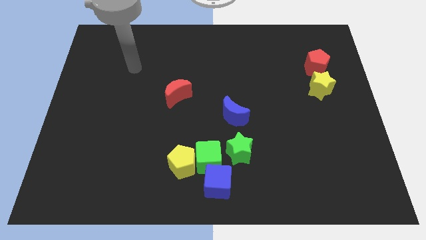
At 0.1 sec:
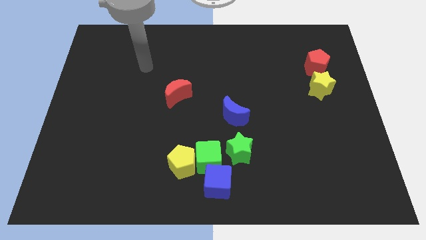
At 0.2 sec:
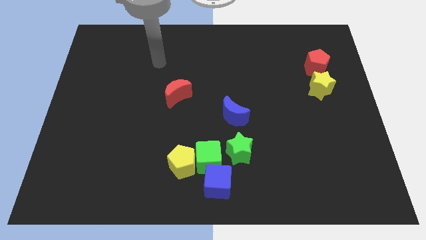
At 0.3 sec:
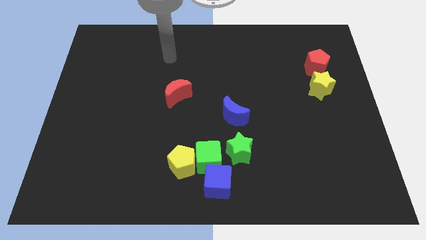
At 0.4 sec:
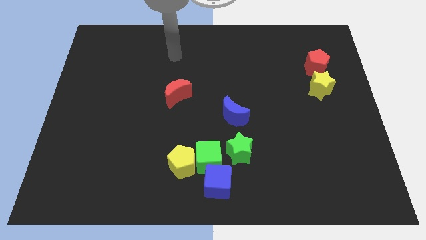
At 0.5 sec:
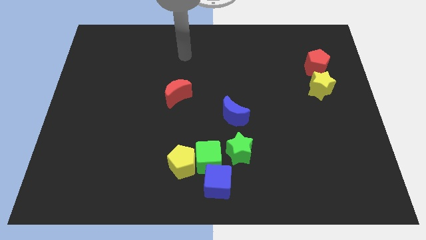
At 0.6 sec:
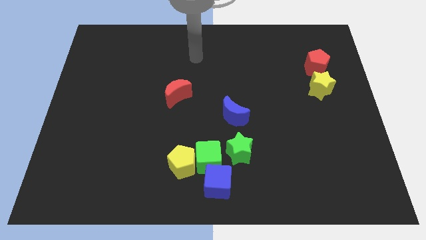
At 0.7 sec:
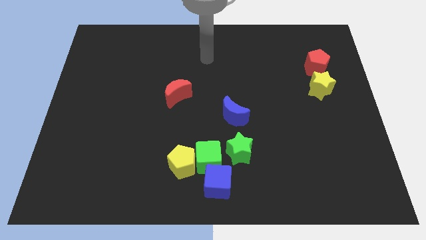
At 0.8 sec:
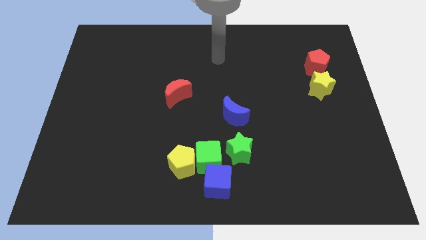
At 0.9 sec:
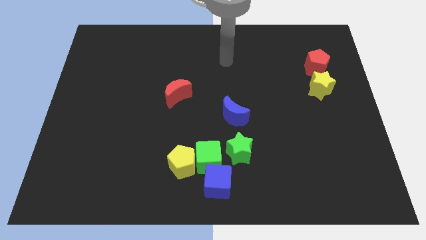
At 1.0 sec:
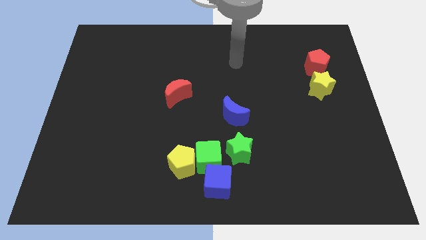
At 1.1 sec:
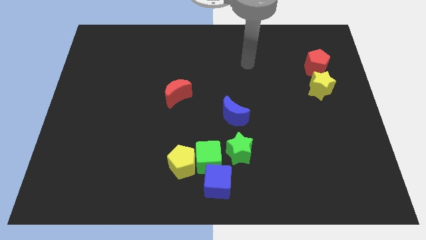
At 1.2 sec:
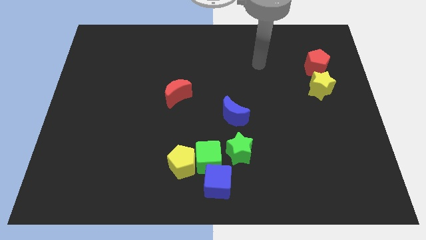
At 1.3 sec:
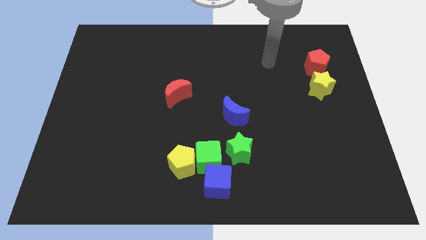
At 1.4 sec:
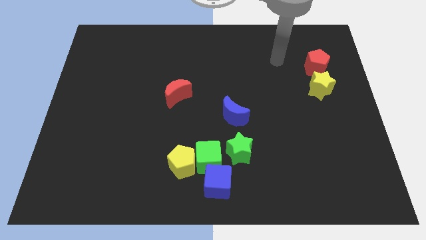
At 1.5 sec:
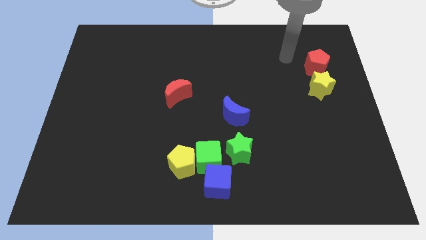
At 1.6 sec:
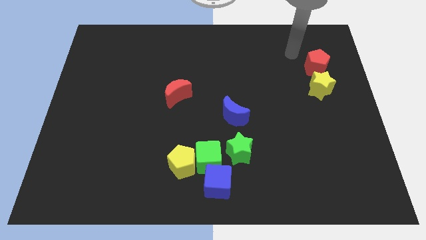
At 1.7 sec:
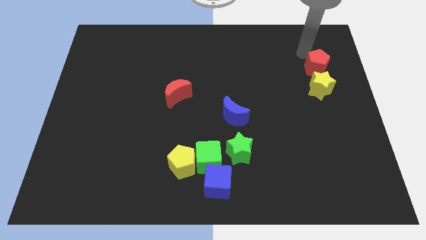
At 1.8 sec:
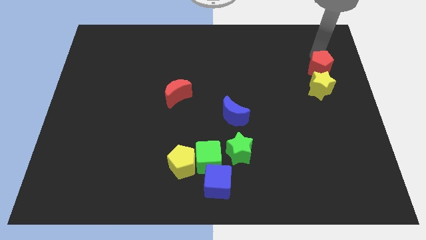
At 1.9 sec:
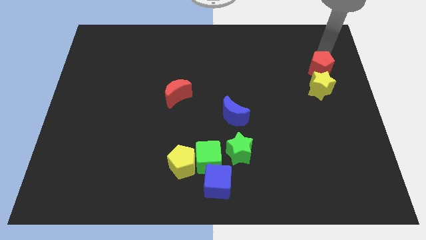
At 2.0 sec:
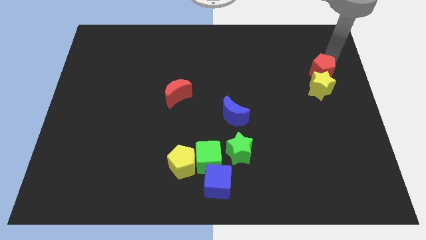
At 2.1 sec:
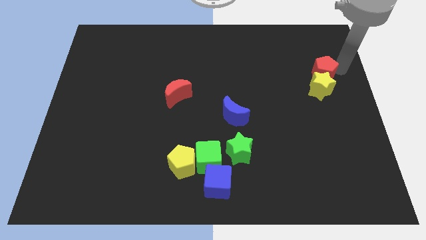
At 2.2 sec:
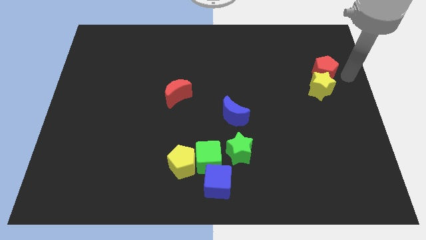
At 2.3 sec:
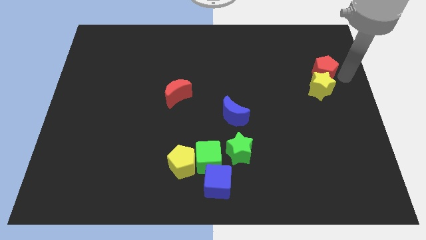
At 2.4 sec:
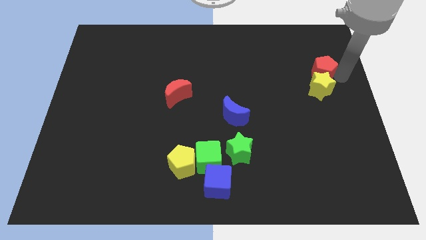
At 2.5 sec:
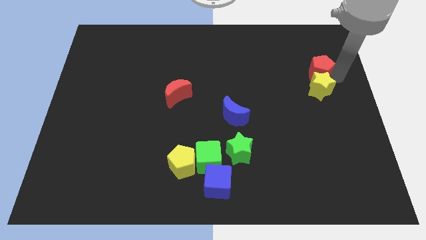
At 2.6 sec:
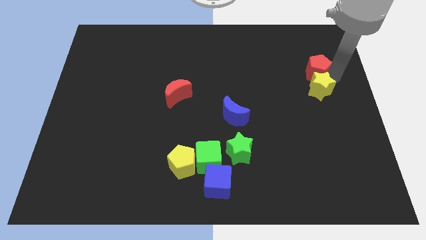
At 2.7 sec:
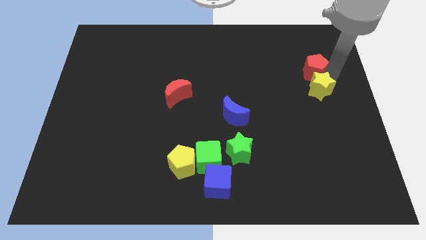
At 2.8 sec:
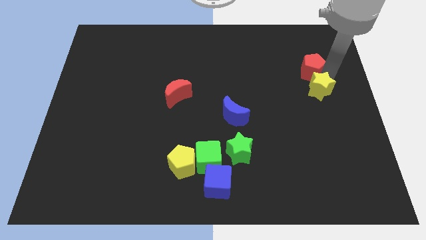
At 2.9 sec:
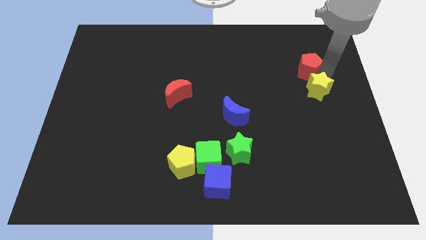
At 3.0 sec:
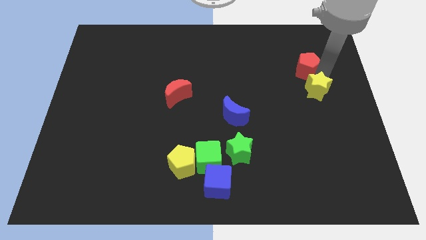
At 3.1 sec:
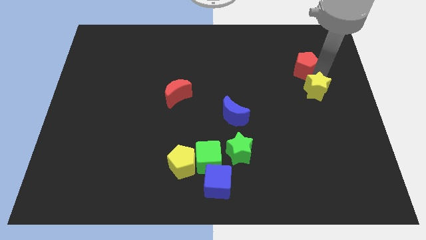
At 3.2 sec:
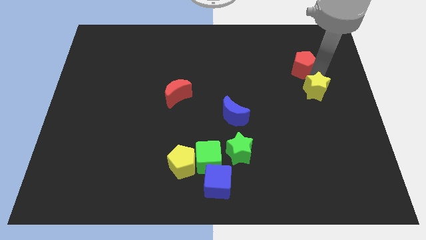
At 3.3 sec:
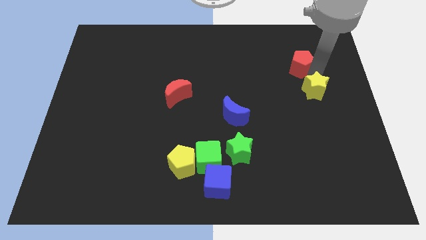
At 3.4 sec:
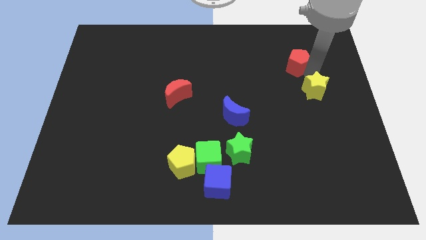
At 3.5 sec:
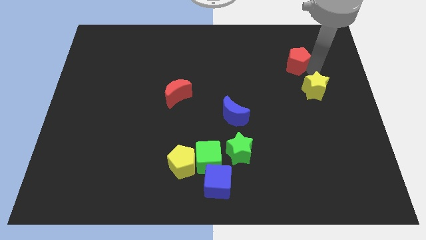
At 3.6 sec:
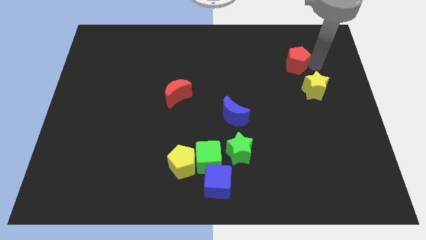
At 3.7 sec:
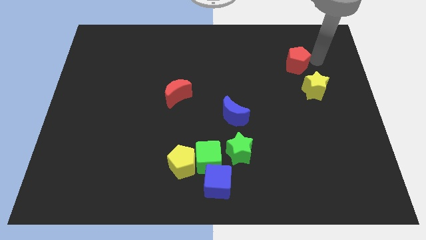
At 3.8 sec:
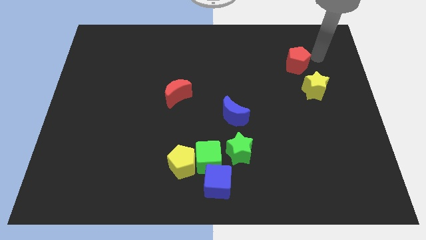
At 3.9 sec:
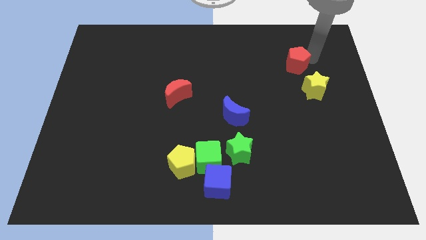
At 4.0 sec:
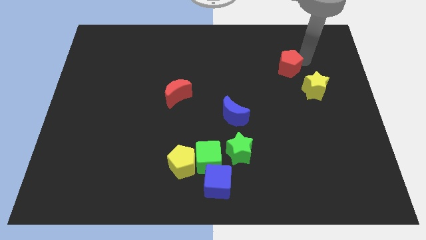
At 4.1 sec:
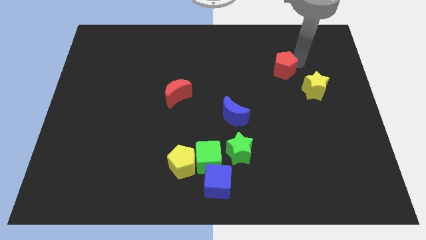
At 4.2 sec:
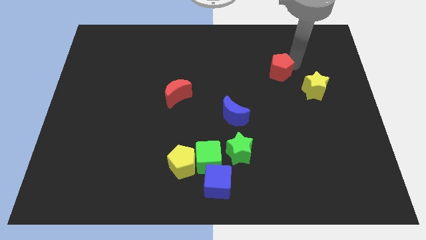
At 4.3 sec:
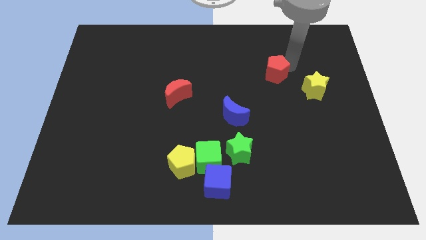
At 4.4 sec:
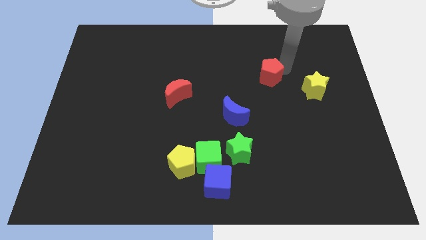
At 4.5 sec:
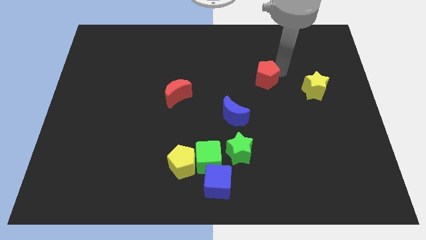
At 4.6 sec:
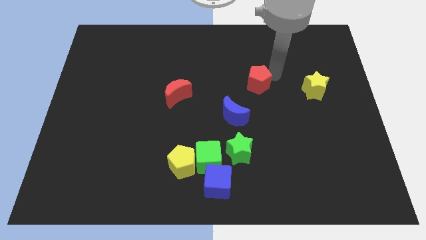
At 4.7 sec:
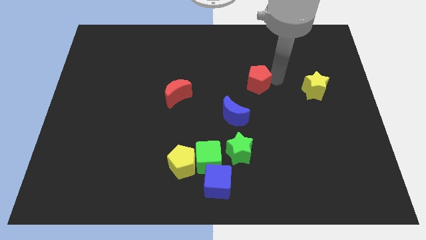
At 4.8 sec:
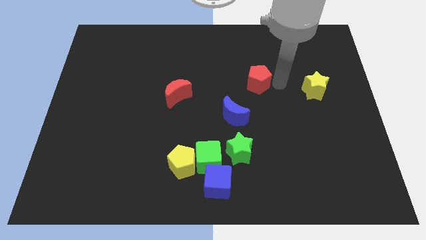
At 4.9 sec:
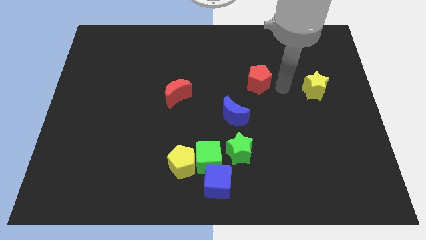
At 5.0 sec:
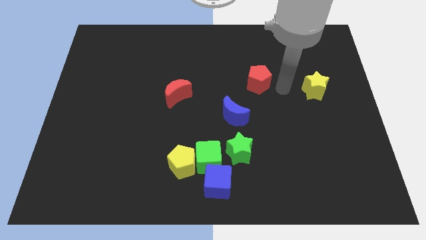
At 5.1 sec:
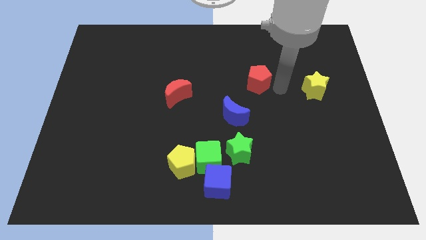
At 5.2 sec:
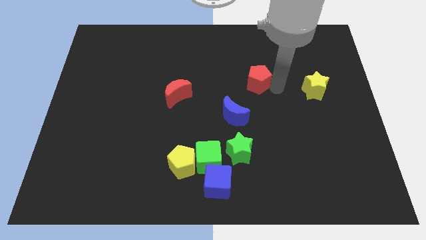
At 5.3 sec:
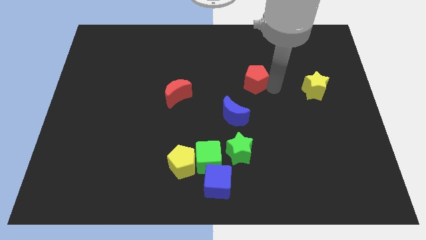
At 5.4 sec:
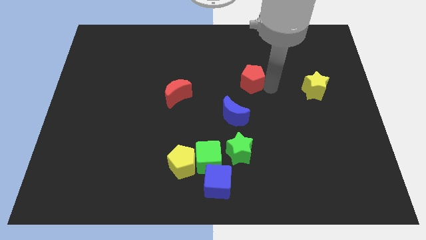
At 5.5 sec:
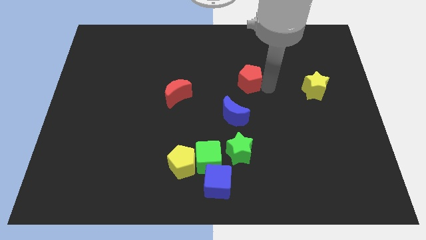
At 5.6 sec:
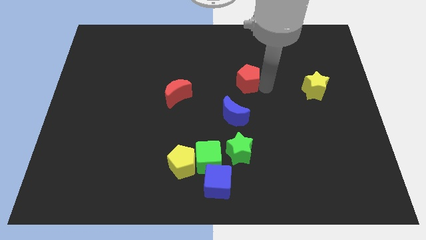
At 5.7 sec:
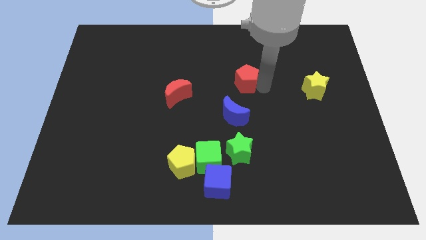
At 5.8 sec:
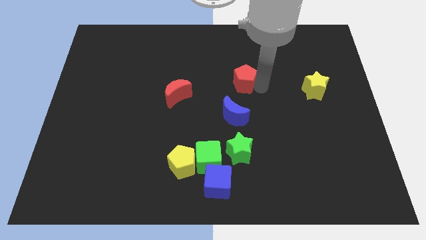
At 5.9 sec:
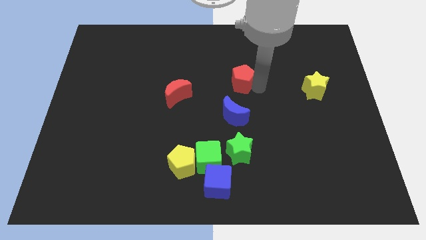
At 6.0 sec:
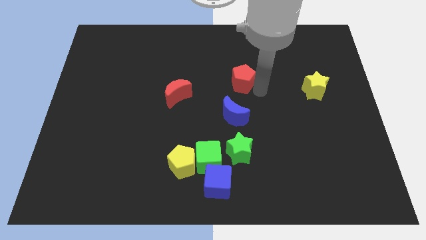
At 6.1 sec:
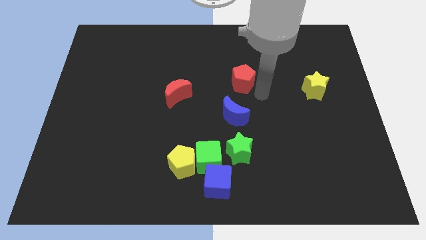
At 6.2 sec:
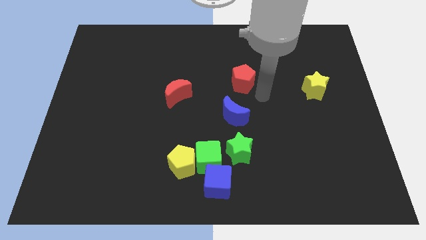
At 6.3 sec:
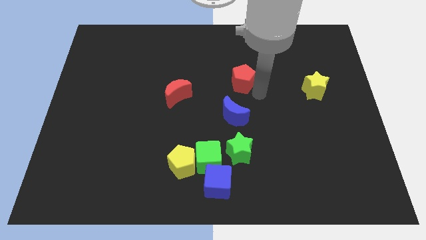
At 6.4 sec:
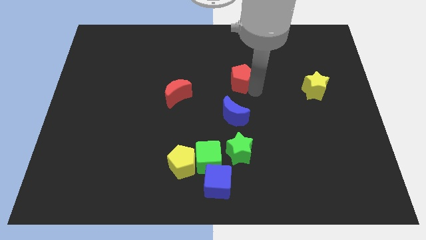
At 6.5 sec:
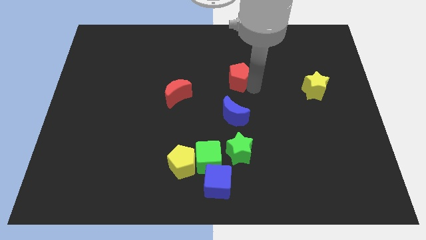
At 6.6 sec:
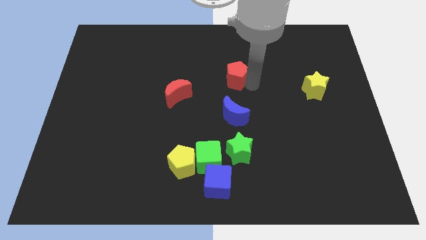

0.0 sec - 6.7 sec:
move the red pentagon to the left

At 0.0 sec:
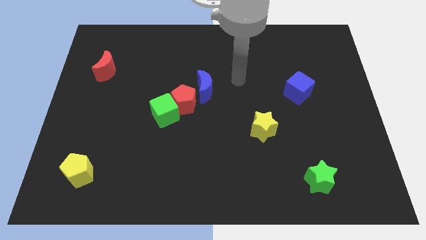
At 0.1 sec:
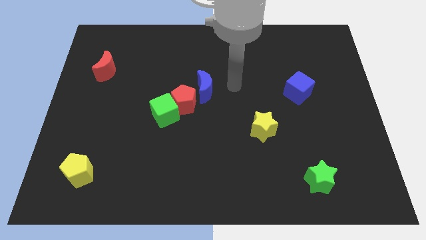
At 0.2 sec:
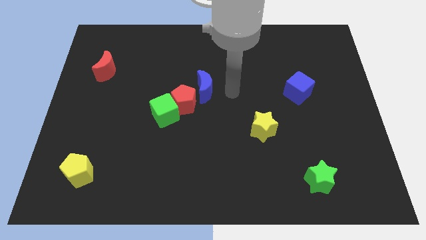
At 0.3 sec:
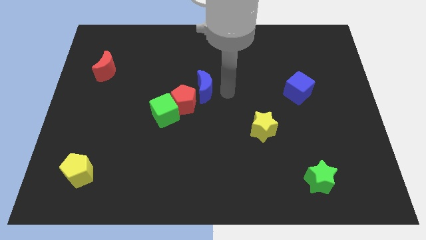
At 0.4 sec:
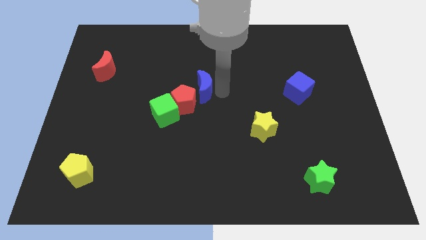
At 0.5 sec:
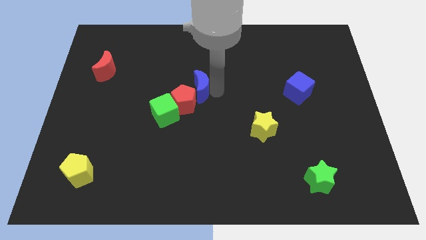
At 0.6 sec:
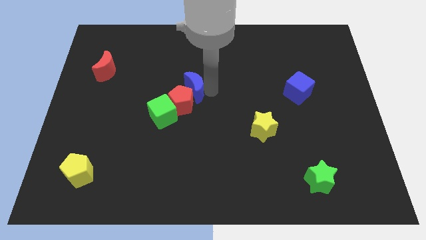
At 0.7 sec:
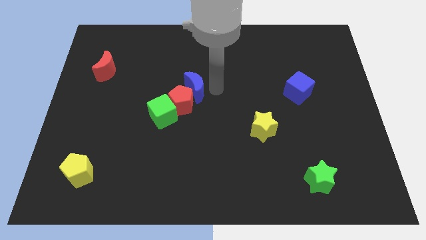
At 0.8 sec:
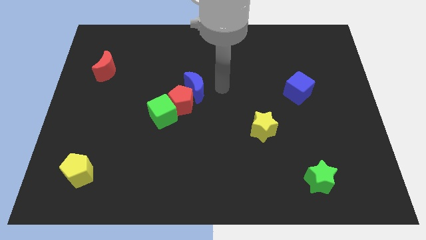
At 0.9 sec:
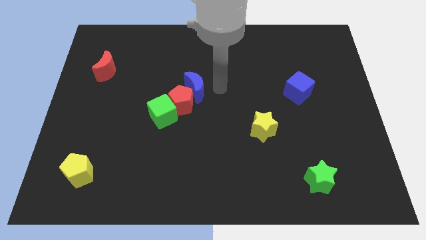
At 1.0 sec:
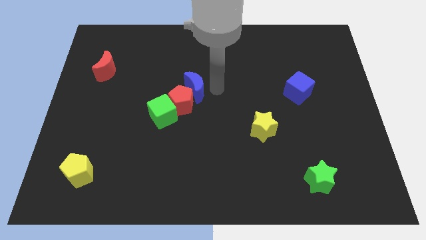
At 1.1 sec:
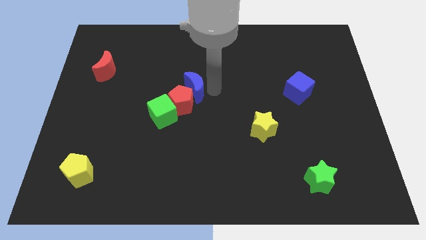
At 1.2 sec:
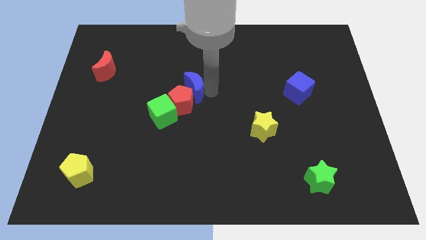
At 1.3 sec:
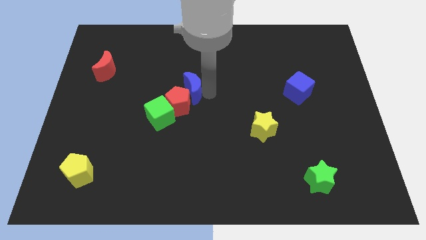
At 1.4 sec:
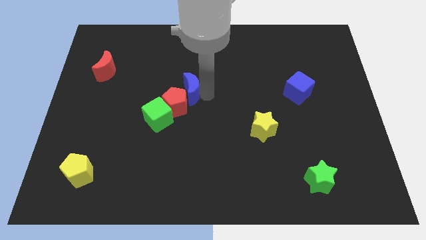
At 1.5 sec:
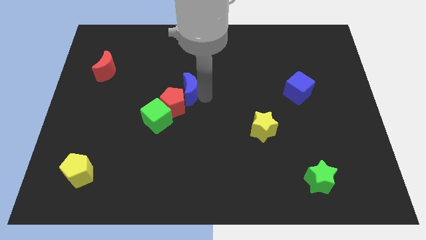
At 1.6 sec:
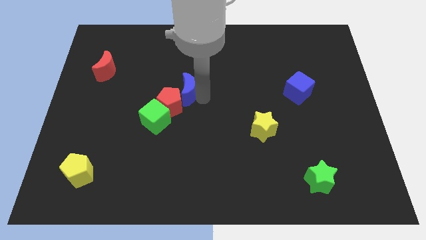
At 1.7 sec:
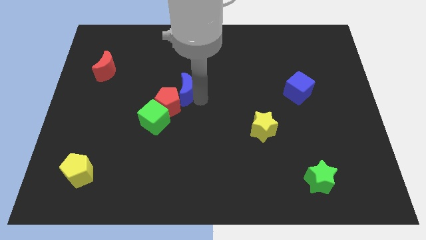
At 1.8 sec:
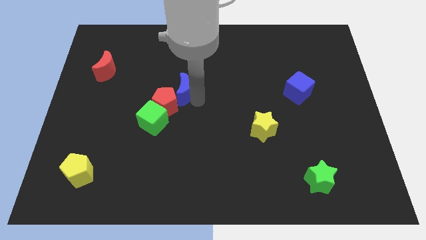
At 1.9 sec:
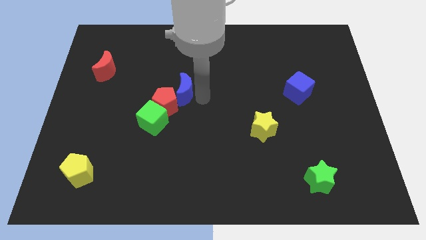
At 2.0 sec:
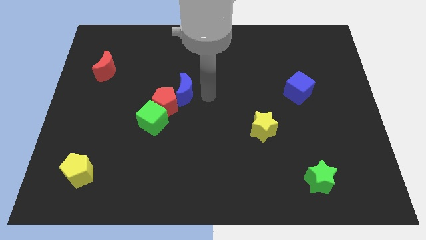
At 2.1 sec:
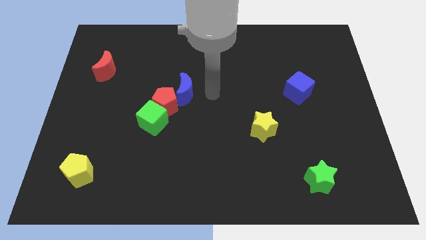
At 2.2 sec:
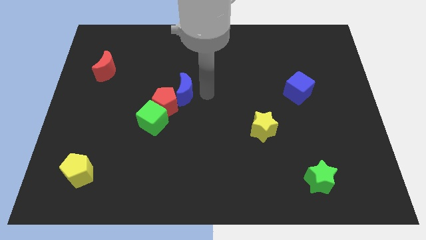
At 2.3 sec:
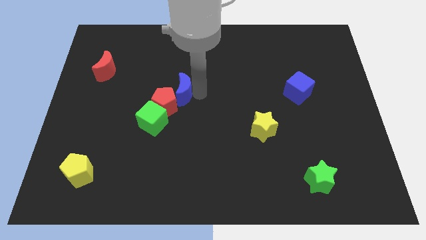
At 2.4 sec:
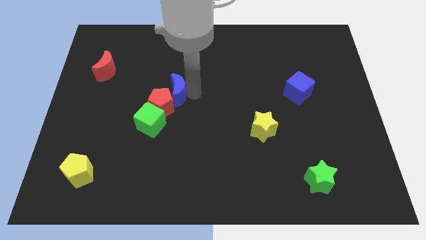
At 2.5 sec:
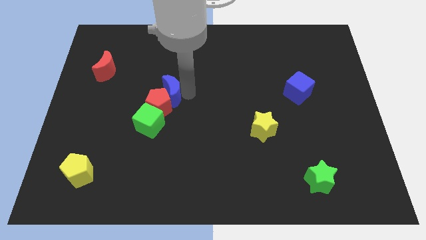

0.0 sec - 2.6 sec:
move the blue moon a bit left
